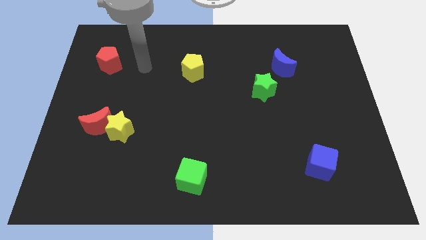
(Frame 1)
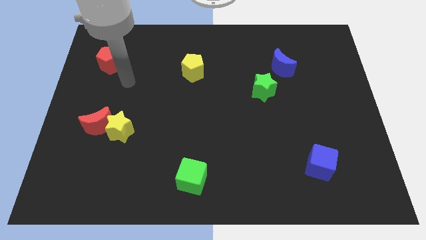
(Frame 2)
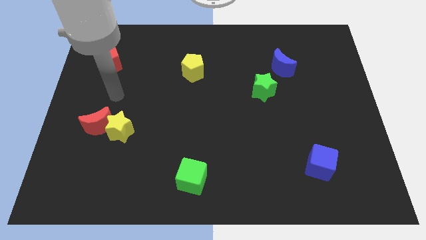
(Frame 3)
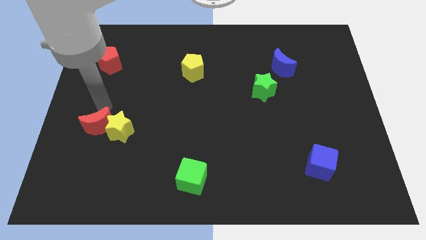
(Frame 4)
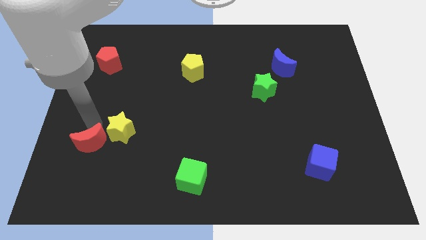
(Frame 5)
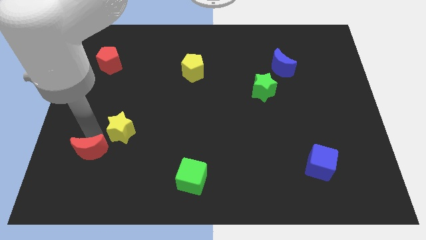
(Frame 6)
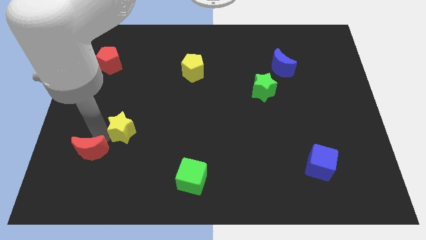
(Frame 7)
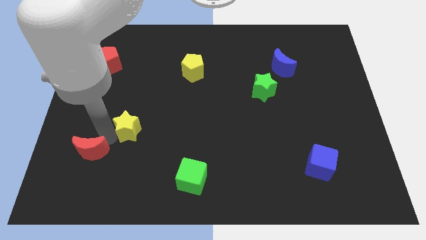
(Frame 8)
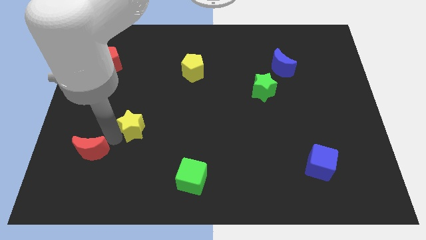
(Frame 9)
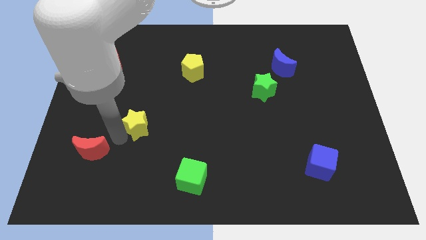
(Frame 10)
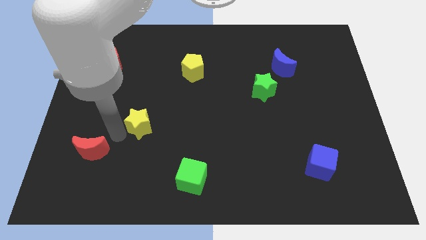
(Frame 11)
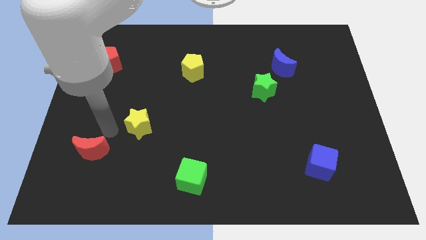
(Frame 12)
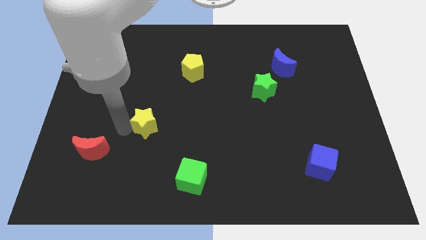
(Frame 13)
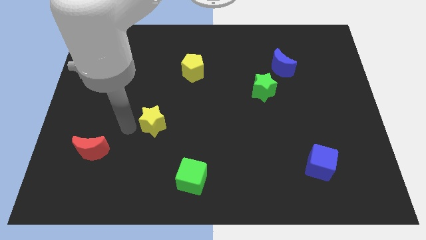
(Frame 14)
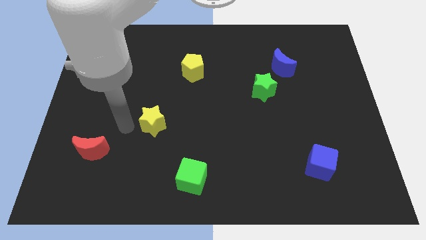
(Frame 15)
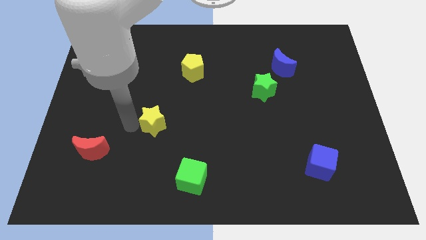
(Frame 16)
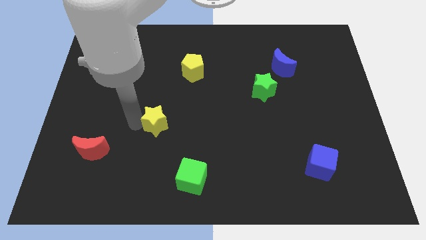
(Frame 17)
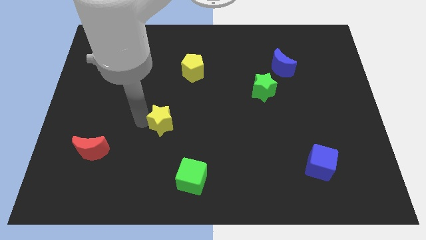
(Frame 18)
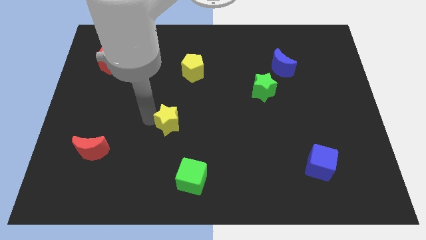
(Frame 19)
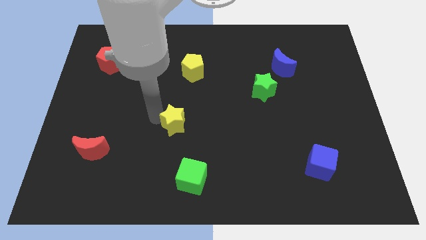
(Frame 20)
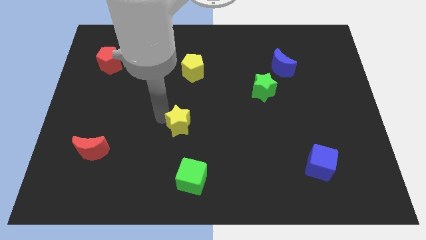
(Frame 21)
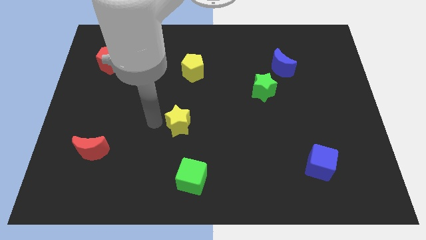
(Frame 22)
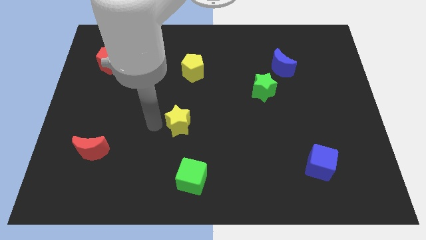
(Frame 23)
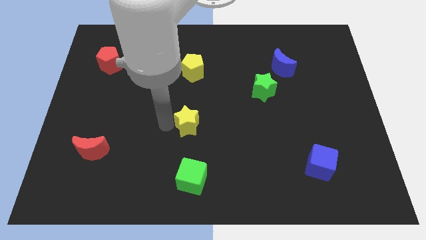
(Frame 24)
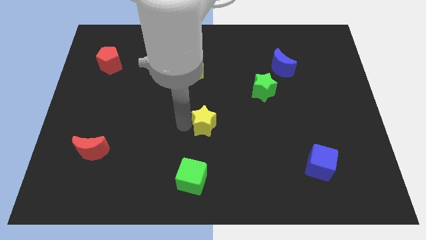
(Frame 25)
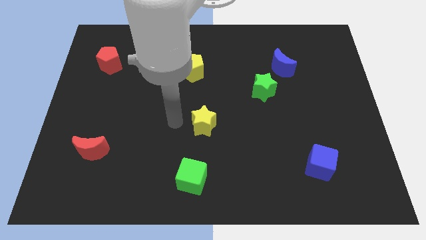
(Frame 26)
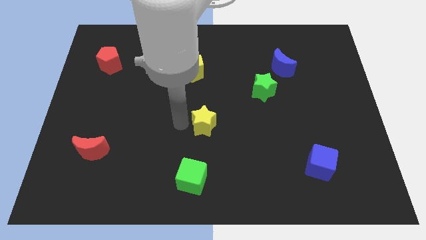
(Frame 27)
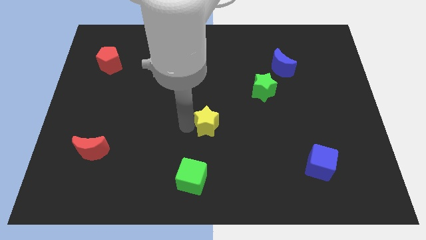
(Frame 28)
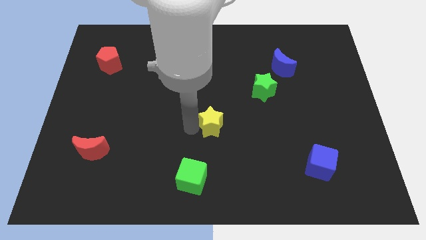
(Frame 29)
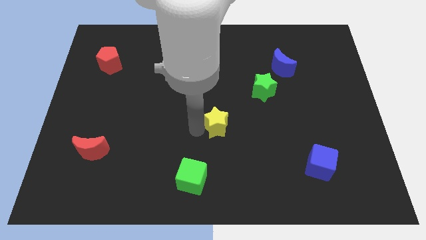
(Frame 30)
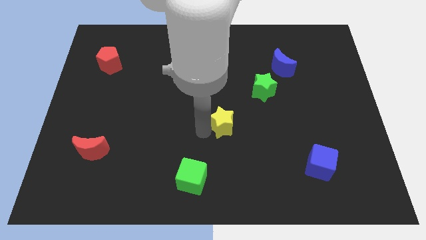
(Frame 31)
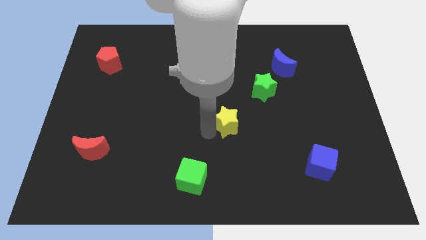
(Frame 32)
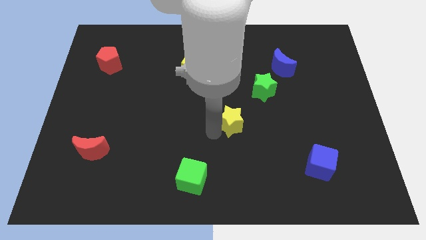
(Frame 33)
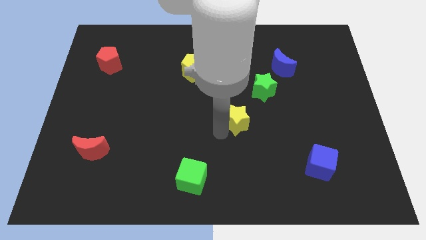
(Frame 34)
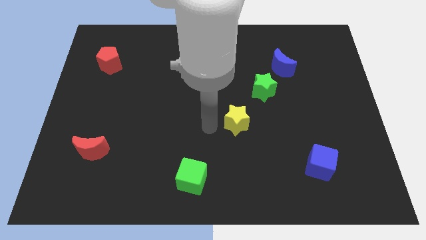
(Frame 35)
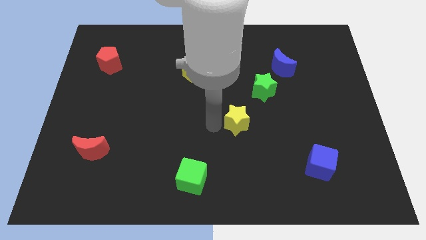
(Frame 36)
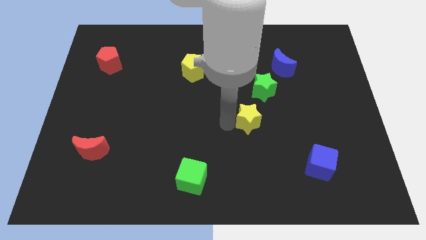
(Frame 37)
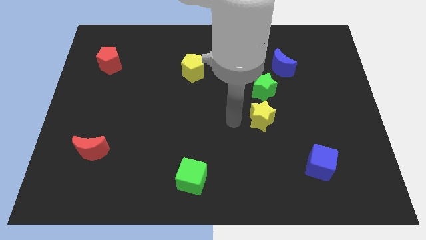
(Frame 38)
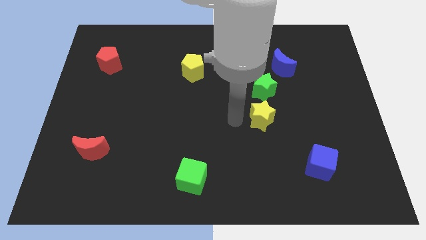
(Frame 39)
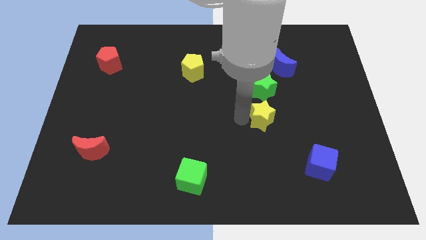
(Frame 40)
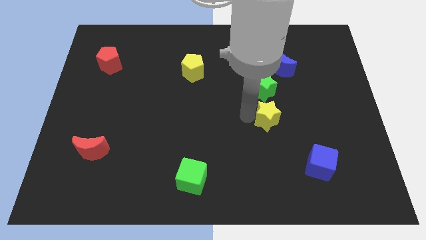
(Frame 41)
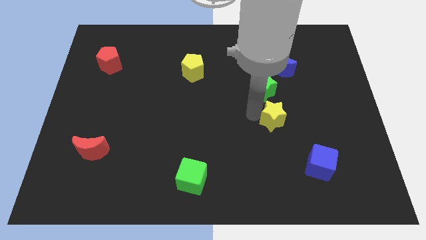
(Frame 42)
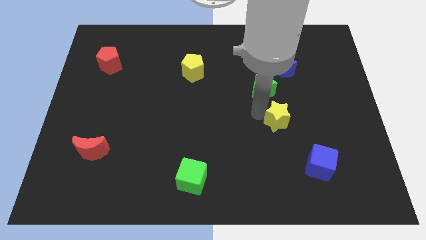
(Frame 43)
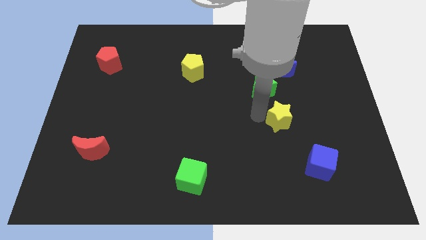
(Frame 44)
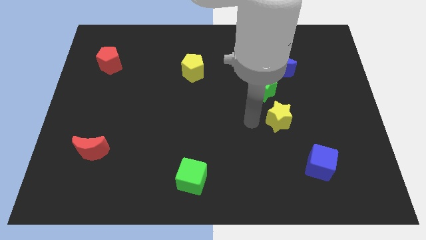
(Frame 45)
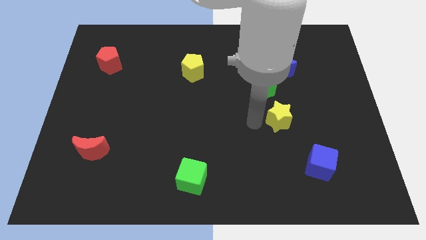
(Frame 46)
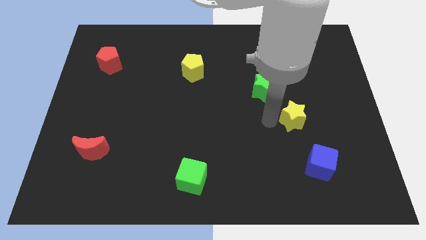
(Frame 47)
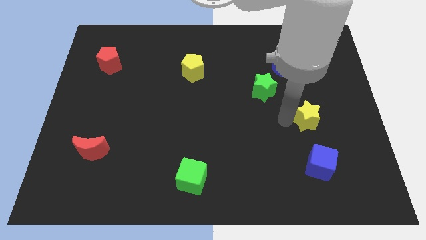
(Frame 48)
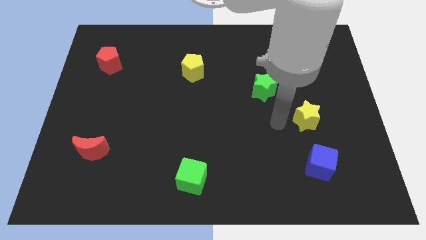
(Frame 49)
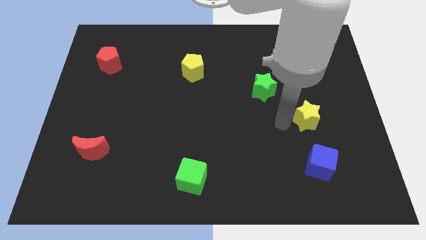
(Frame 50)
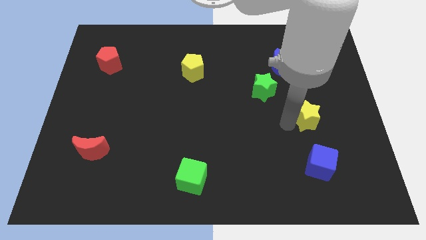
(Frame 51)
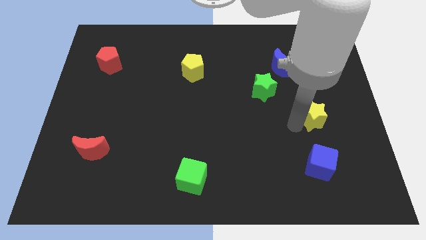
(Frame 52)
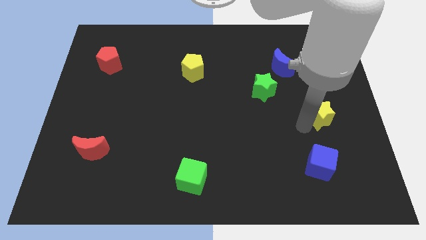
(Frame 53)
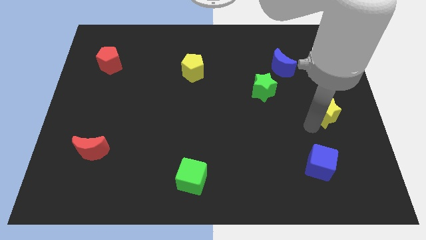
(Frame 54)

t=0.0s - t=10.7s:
slide the yellow star to the right side

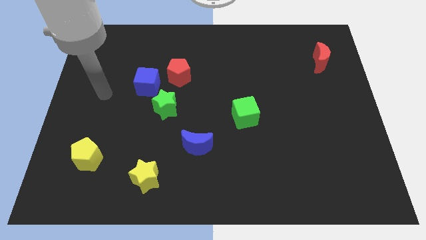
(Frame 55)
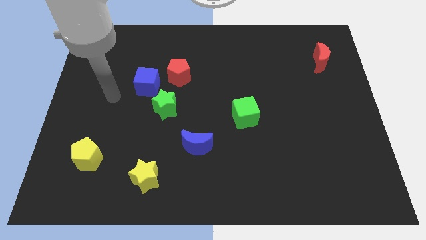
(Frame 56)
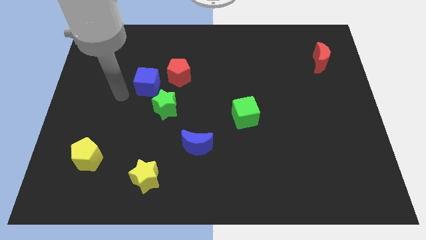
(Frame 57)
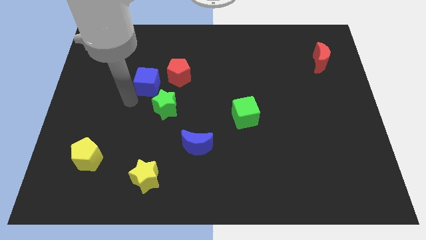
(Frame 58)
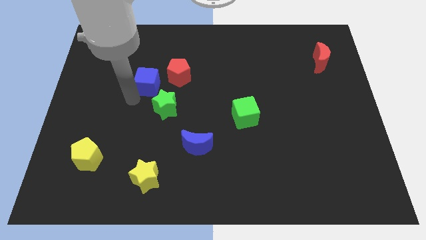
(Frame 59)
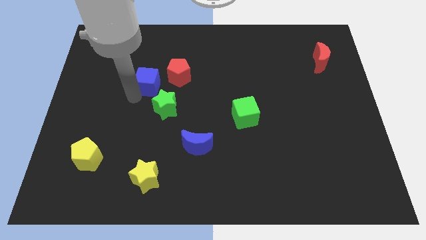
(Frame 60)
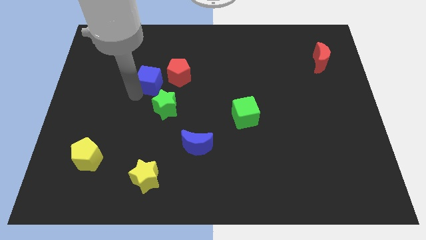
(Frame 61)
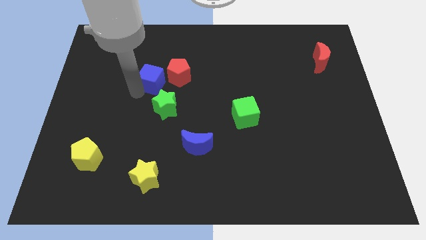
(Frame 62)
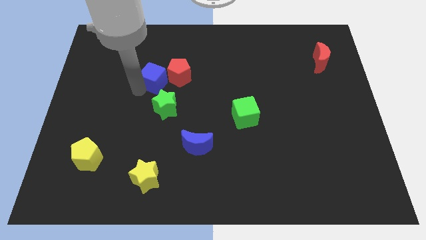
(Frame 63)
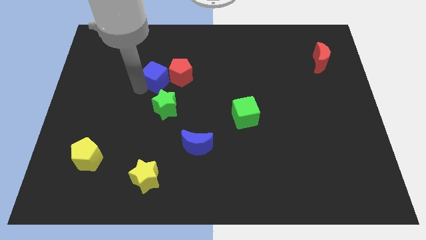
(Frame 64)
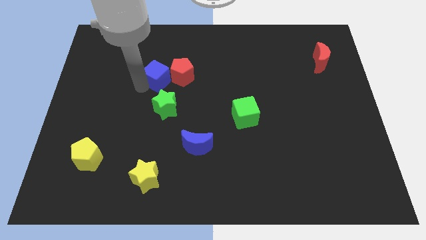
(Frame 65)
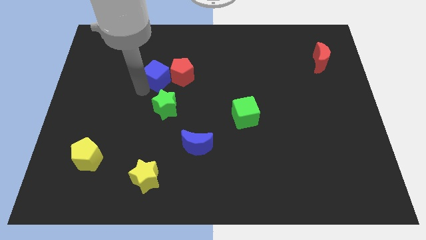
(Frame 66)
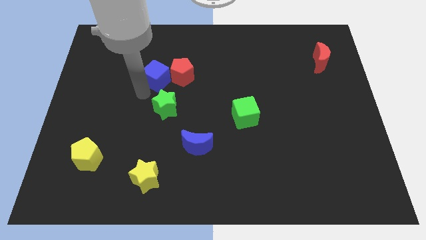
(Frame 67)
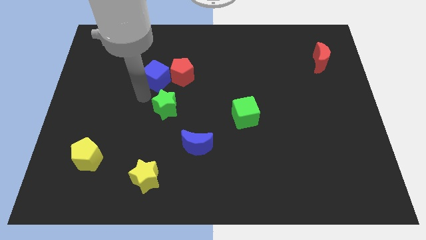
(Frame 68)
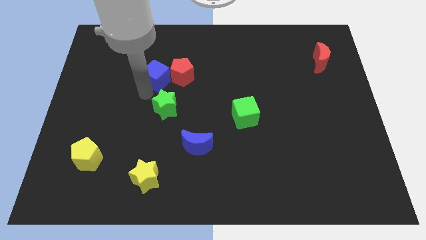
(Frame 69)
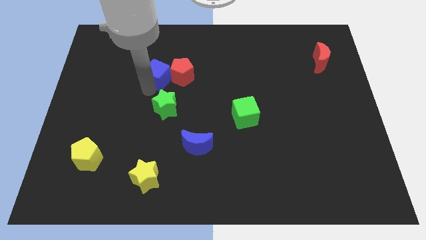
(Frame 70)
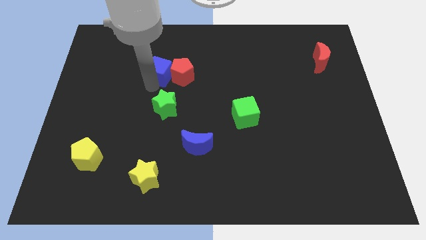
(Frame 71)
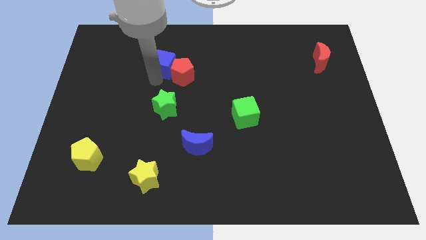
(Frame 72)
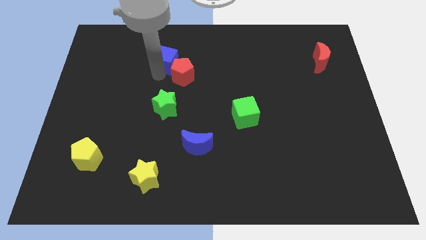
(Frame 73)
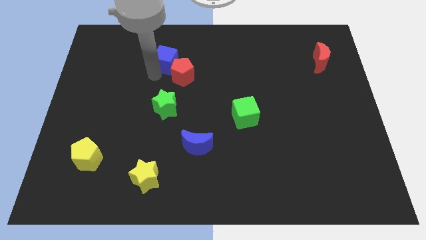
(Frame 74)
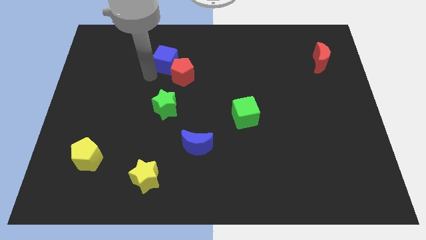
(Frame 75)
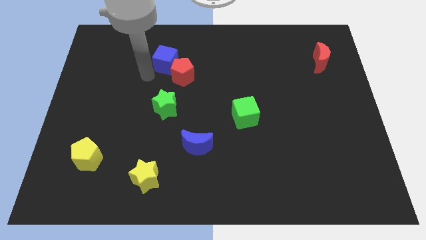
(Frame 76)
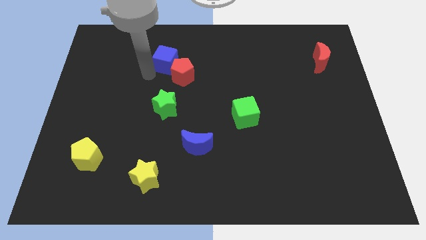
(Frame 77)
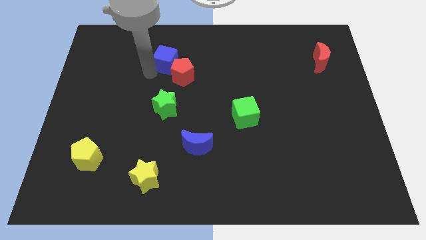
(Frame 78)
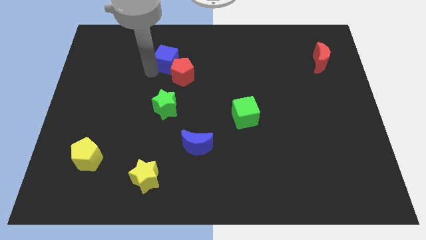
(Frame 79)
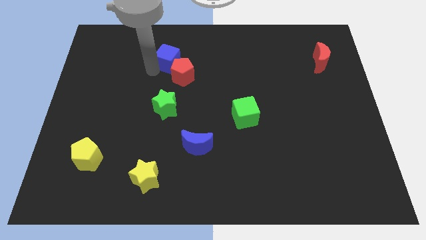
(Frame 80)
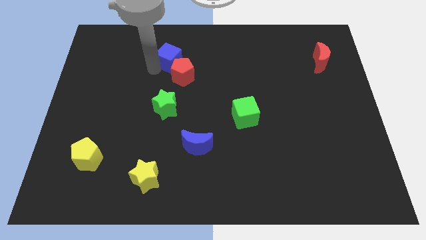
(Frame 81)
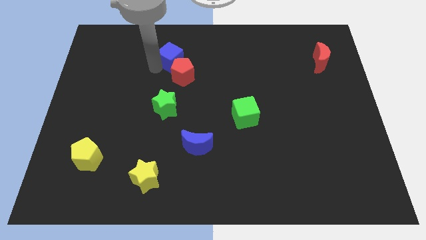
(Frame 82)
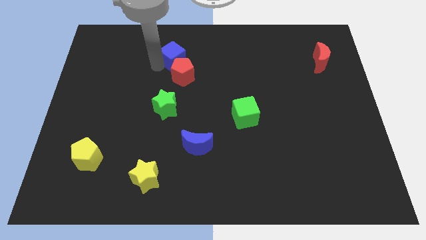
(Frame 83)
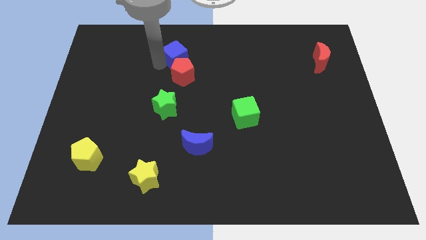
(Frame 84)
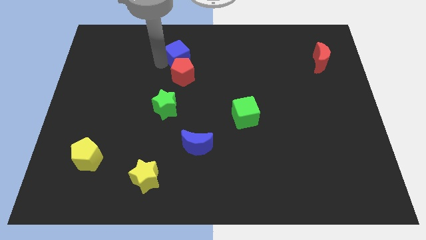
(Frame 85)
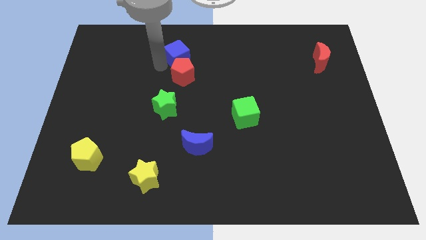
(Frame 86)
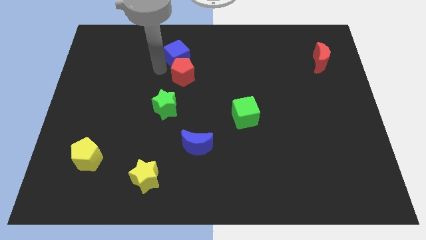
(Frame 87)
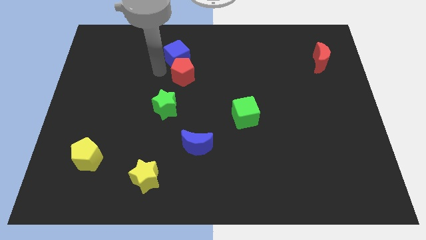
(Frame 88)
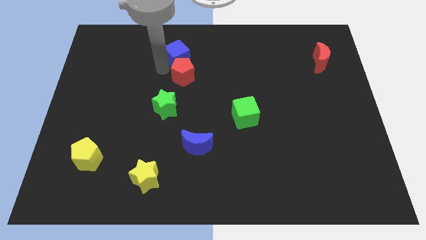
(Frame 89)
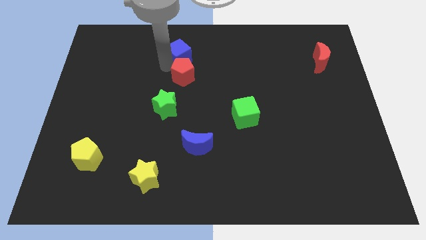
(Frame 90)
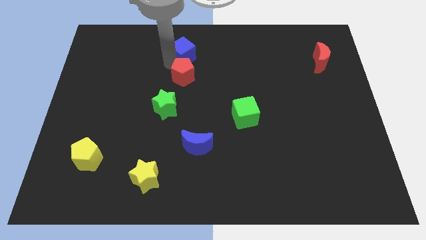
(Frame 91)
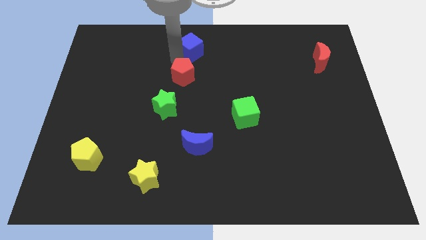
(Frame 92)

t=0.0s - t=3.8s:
push the blue cube to the top
